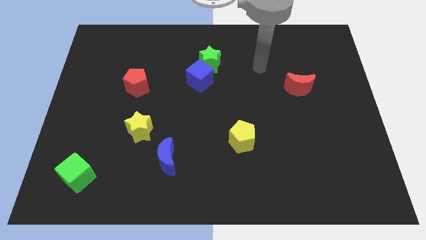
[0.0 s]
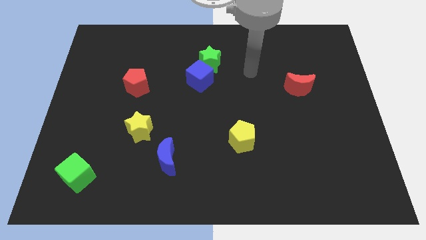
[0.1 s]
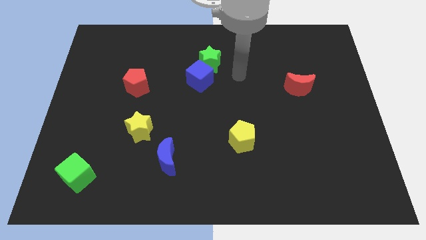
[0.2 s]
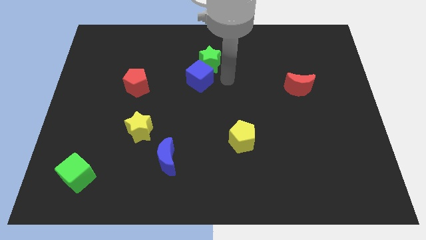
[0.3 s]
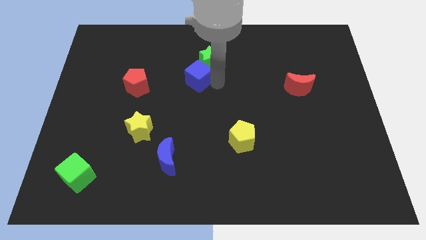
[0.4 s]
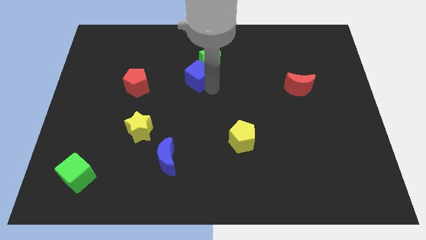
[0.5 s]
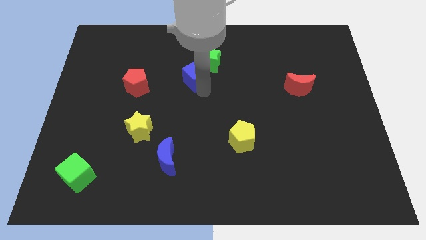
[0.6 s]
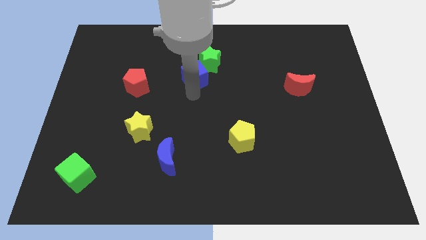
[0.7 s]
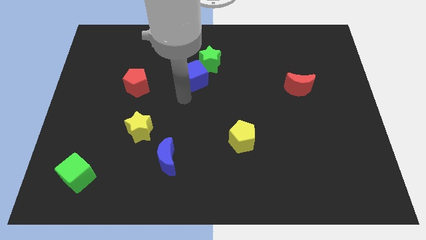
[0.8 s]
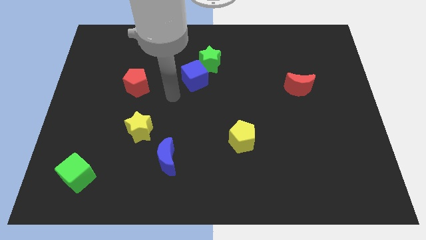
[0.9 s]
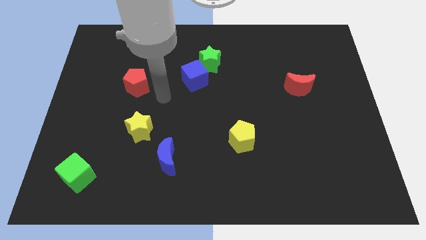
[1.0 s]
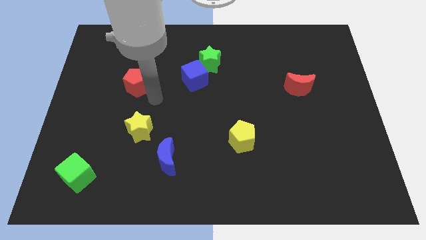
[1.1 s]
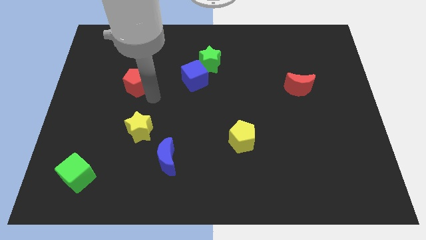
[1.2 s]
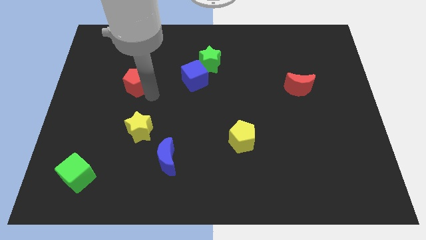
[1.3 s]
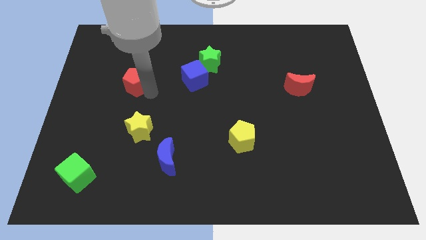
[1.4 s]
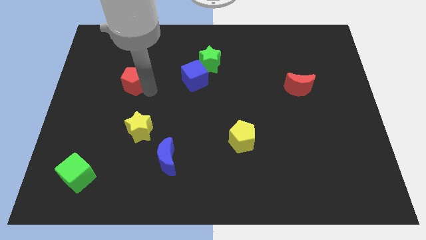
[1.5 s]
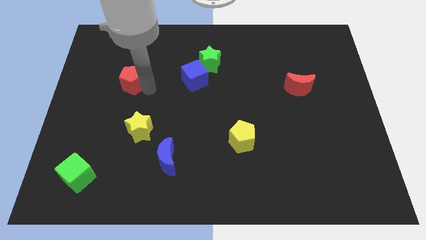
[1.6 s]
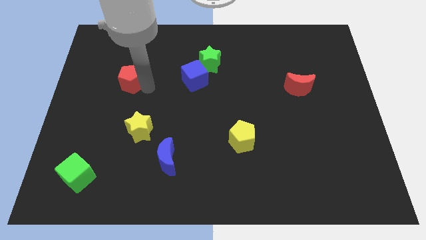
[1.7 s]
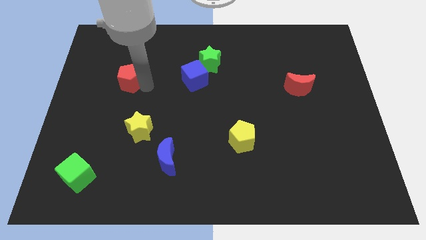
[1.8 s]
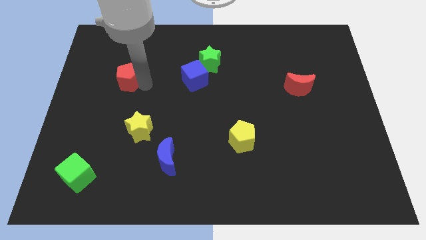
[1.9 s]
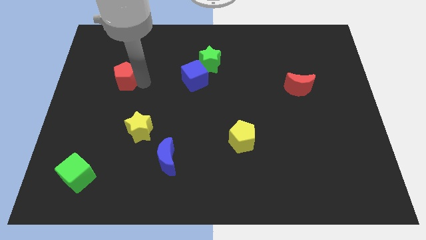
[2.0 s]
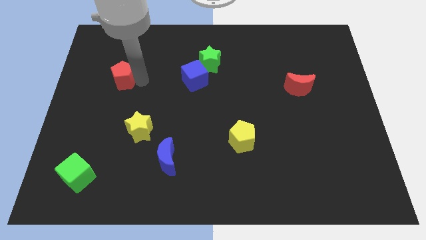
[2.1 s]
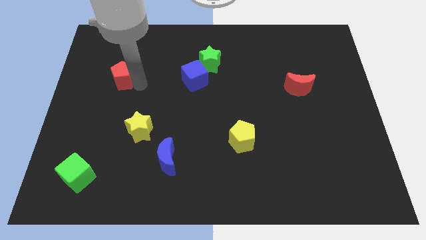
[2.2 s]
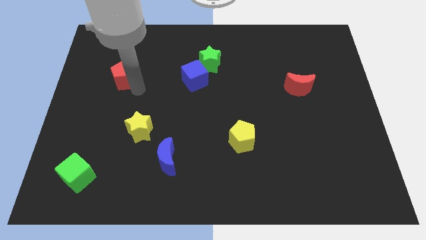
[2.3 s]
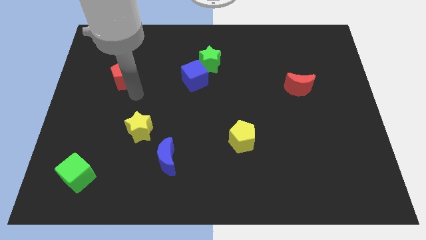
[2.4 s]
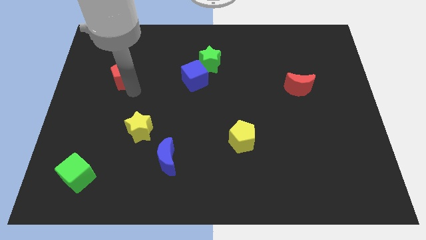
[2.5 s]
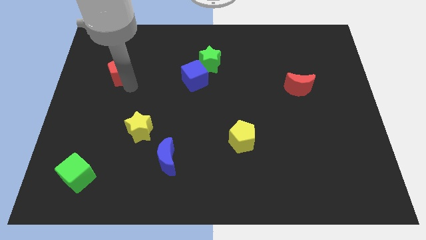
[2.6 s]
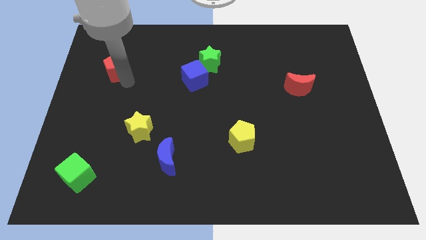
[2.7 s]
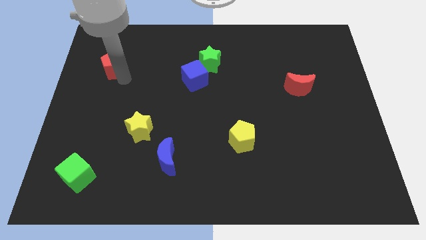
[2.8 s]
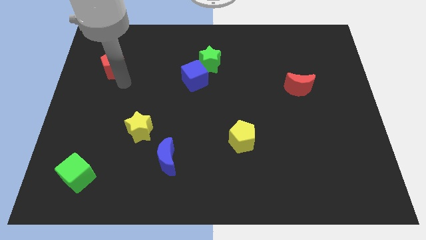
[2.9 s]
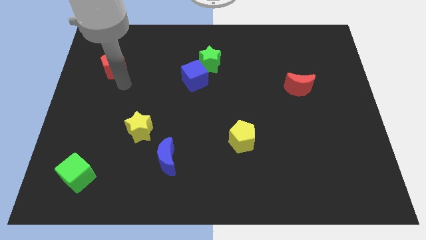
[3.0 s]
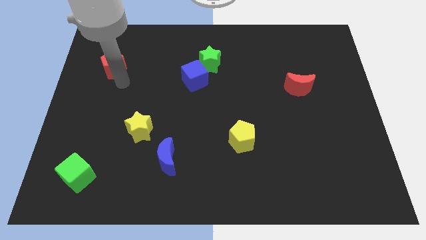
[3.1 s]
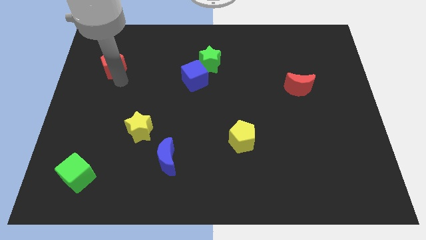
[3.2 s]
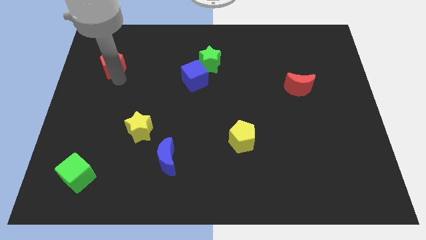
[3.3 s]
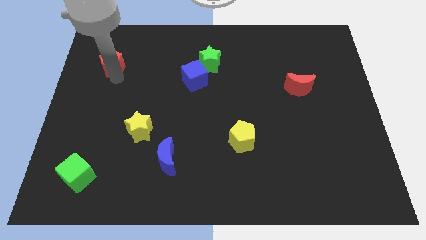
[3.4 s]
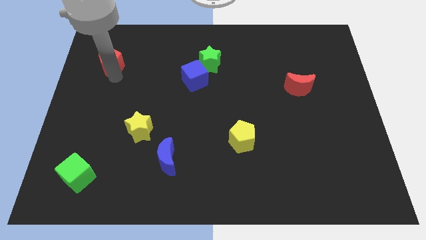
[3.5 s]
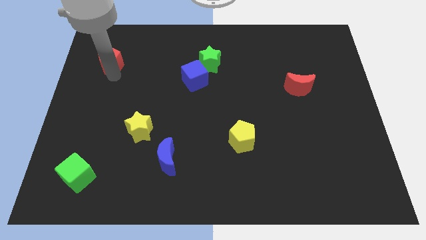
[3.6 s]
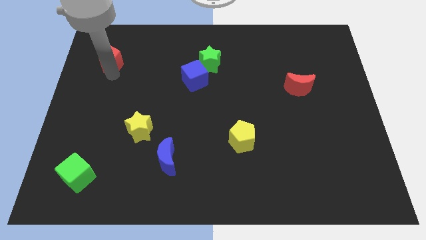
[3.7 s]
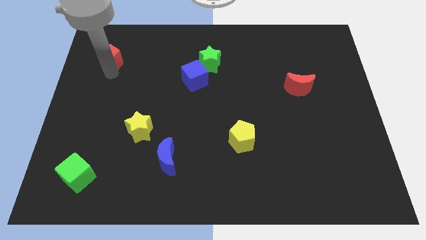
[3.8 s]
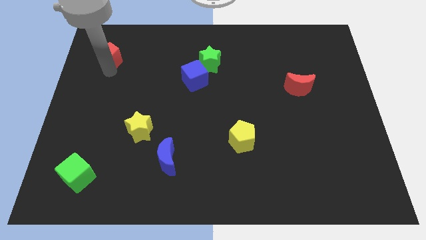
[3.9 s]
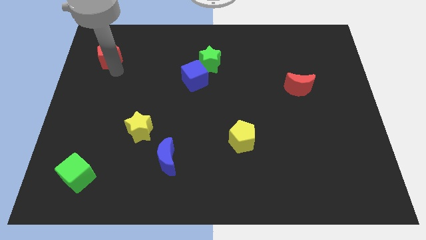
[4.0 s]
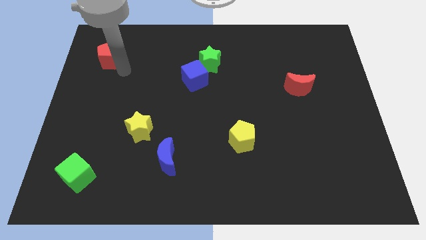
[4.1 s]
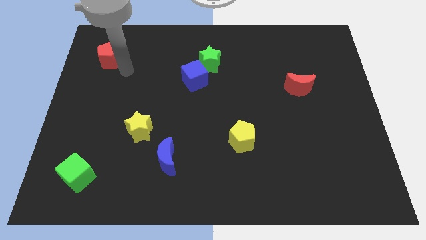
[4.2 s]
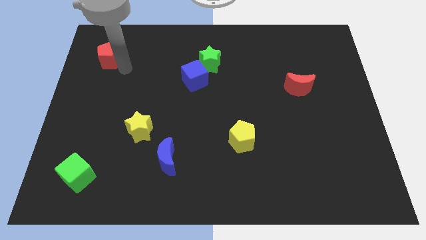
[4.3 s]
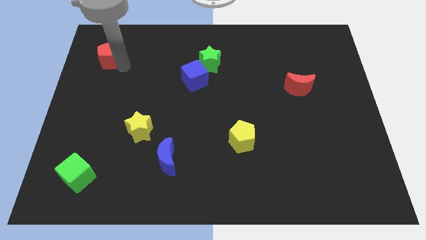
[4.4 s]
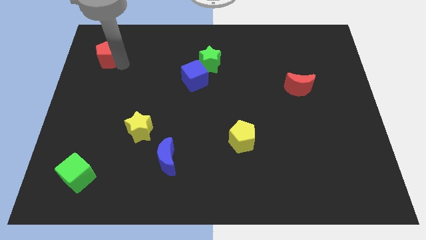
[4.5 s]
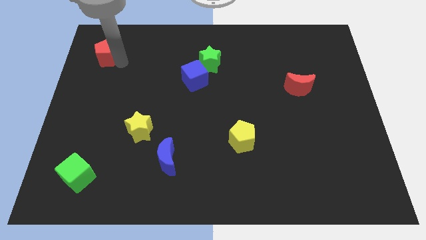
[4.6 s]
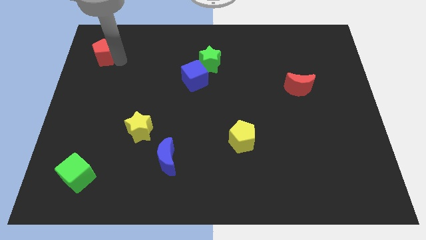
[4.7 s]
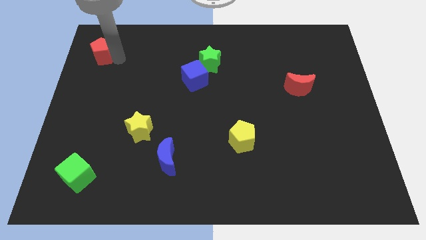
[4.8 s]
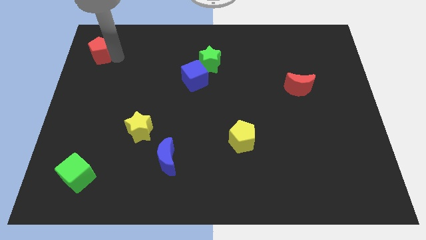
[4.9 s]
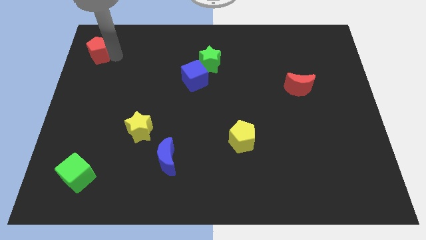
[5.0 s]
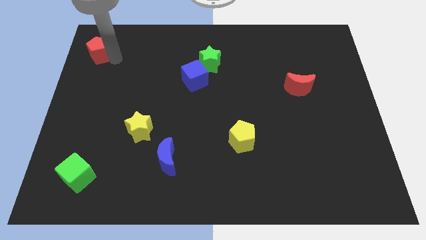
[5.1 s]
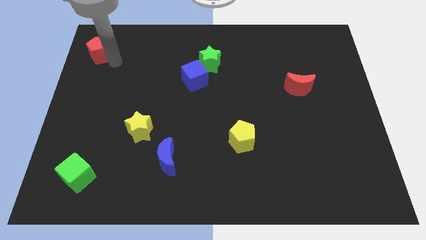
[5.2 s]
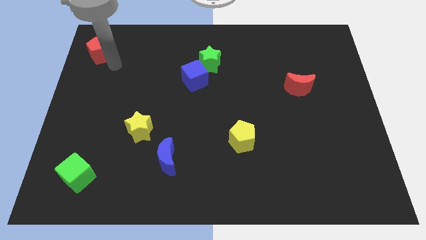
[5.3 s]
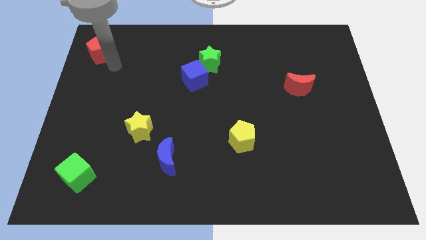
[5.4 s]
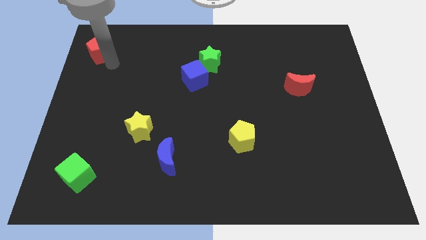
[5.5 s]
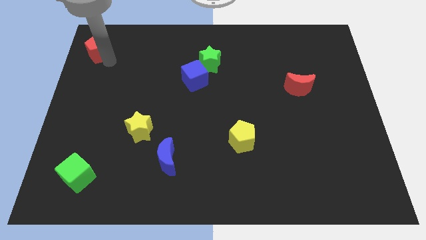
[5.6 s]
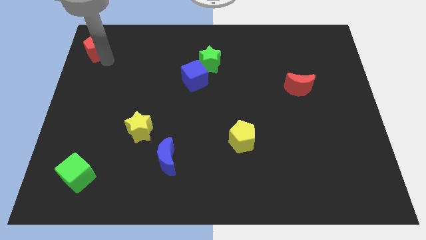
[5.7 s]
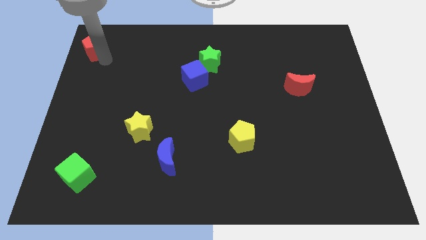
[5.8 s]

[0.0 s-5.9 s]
move the red pentagon to the top left of the board

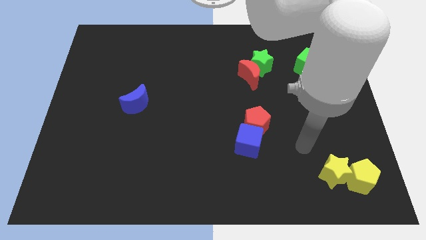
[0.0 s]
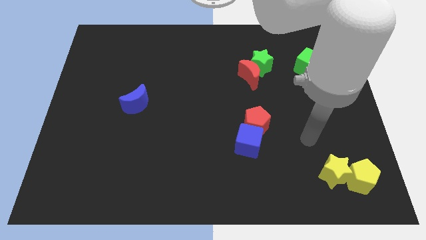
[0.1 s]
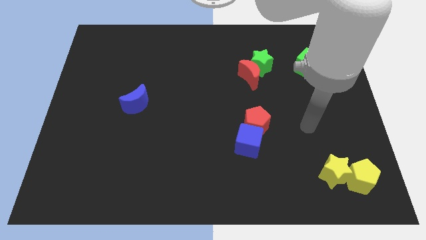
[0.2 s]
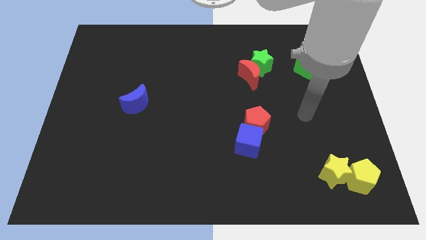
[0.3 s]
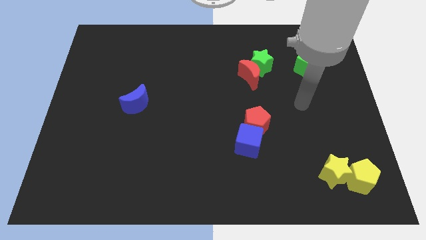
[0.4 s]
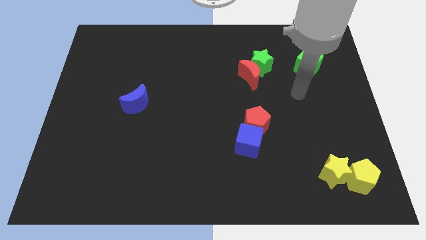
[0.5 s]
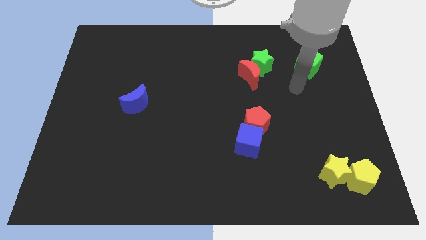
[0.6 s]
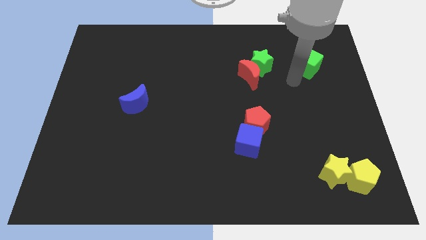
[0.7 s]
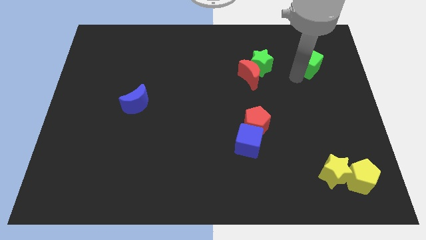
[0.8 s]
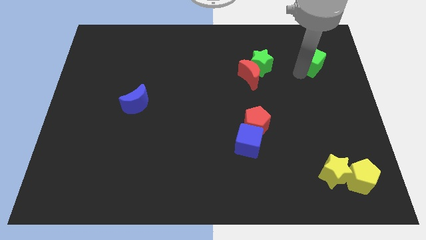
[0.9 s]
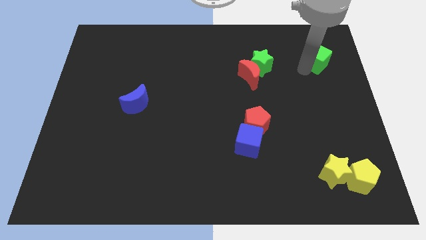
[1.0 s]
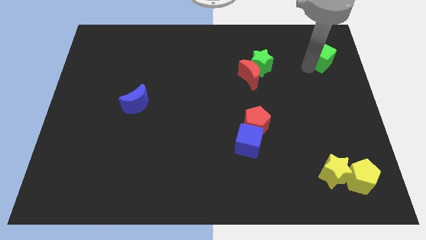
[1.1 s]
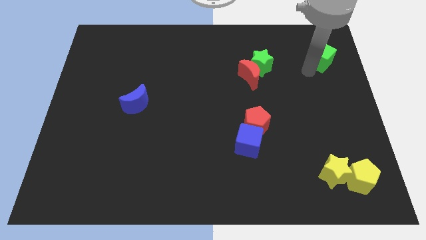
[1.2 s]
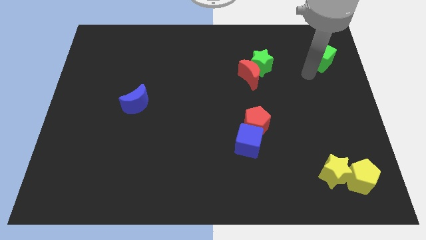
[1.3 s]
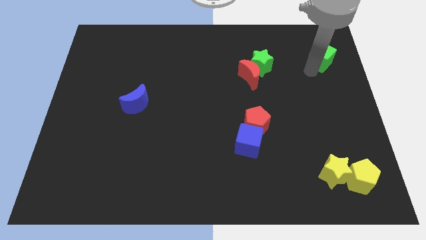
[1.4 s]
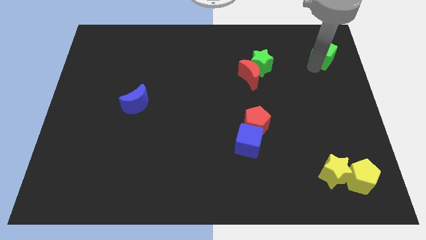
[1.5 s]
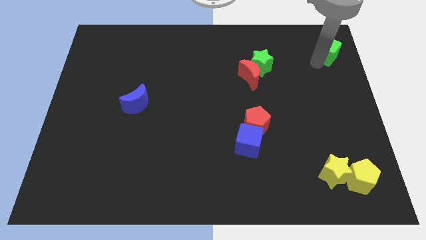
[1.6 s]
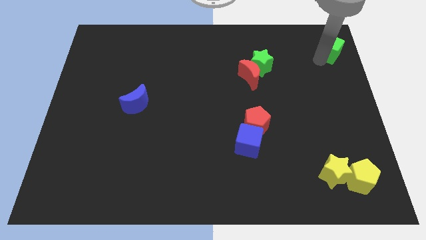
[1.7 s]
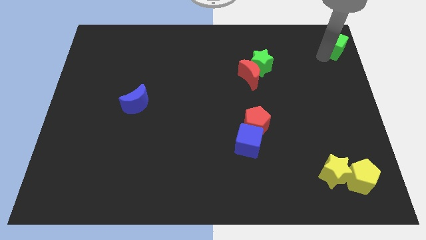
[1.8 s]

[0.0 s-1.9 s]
put the green cube to the top right
